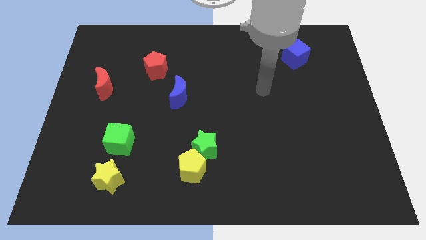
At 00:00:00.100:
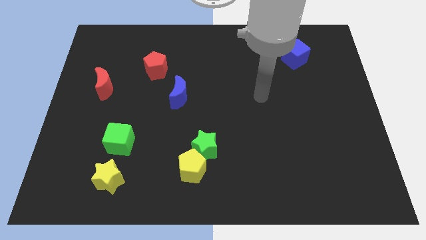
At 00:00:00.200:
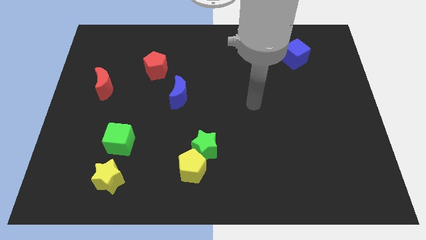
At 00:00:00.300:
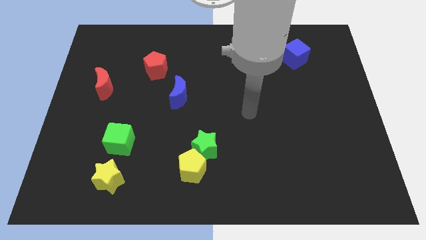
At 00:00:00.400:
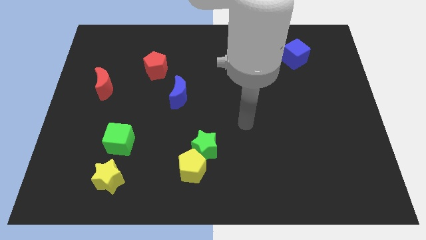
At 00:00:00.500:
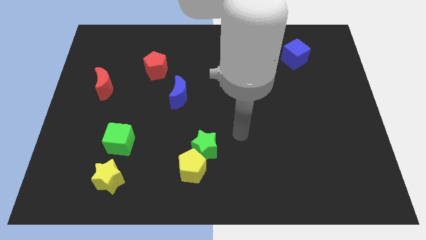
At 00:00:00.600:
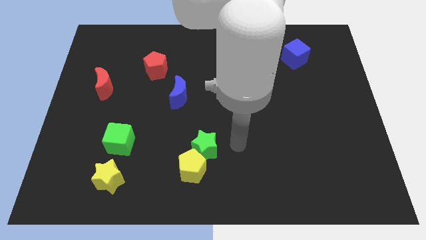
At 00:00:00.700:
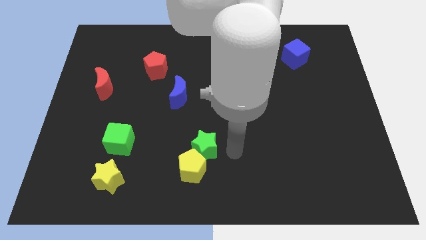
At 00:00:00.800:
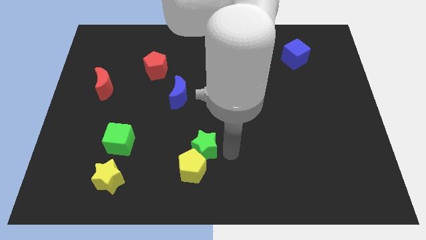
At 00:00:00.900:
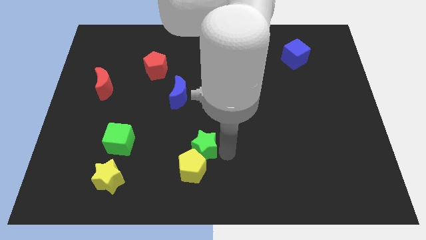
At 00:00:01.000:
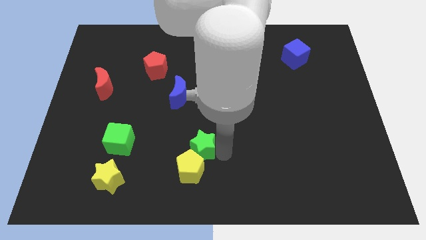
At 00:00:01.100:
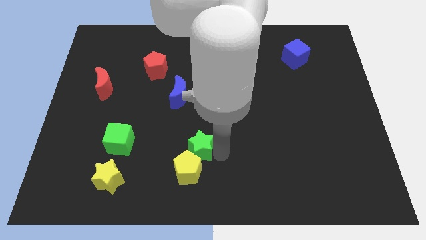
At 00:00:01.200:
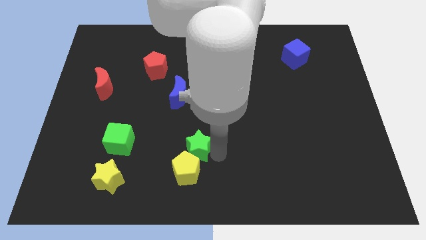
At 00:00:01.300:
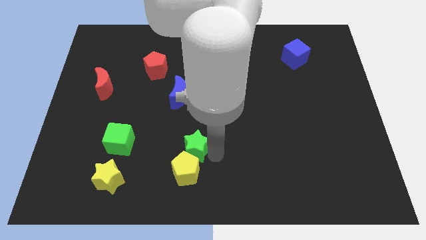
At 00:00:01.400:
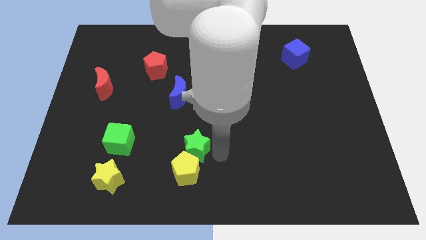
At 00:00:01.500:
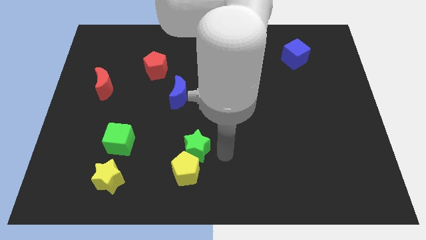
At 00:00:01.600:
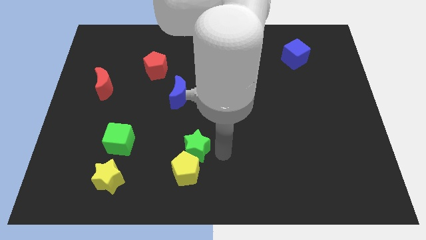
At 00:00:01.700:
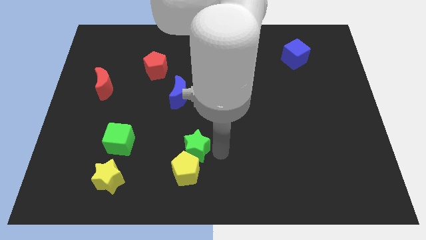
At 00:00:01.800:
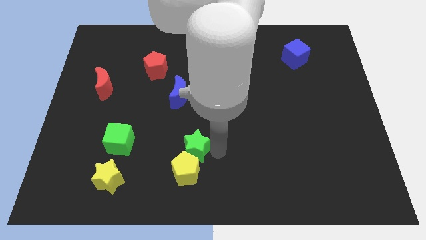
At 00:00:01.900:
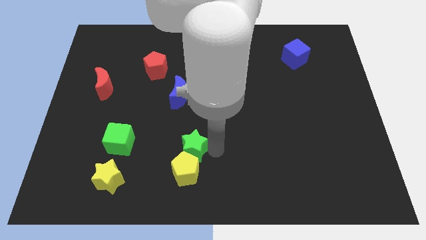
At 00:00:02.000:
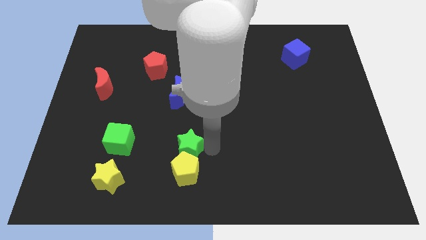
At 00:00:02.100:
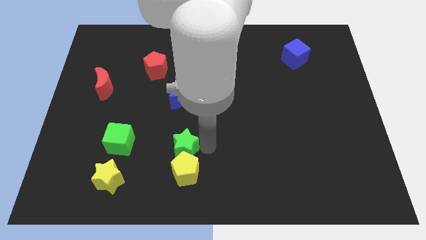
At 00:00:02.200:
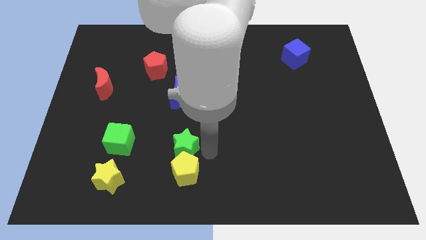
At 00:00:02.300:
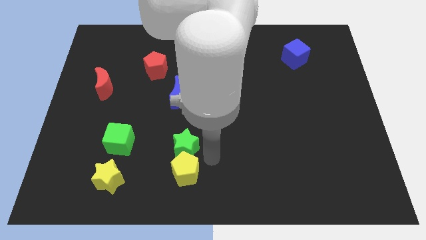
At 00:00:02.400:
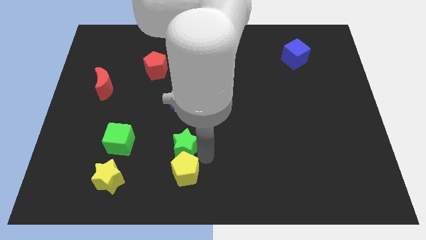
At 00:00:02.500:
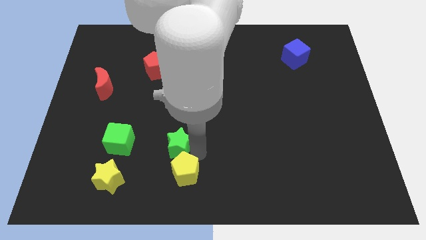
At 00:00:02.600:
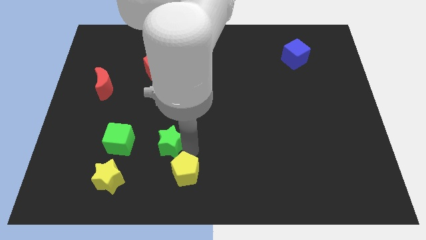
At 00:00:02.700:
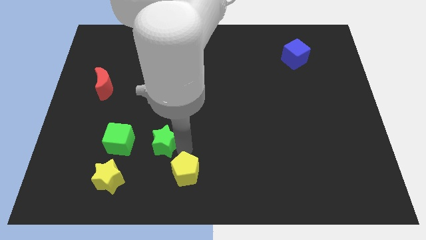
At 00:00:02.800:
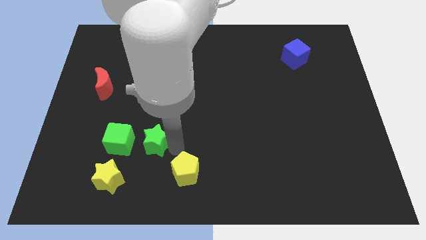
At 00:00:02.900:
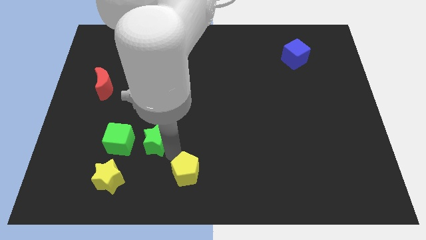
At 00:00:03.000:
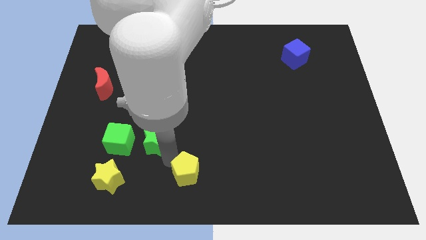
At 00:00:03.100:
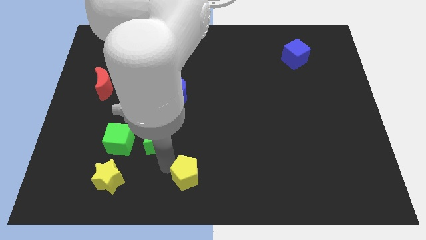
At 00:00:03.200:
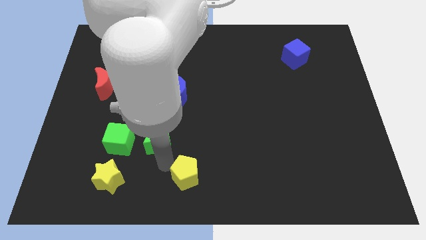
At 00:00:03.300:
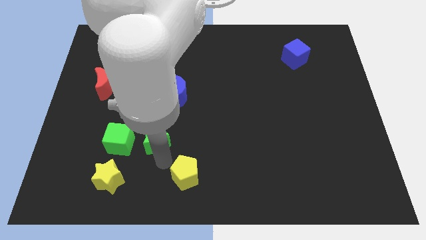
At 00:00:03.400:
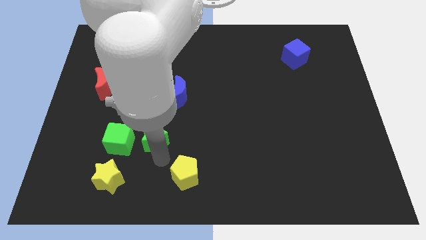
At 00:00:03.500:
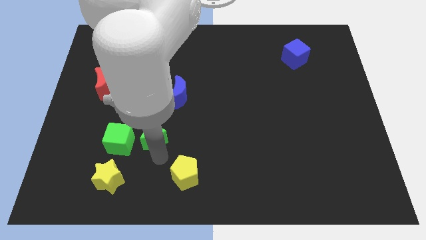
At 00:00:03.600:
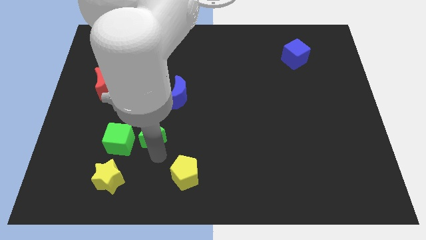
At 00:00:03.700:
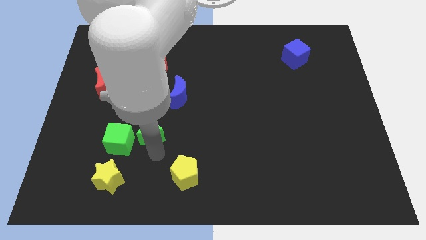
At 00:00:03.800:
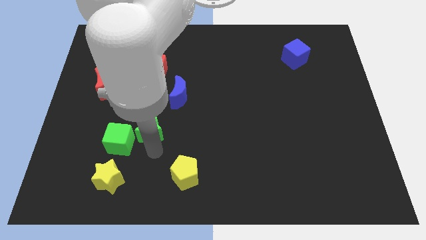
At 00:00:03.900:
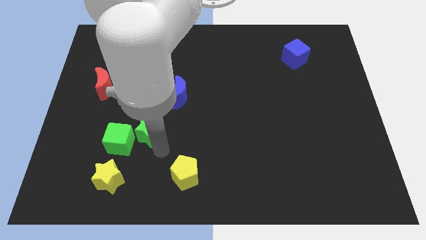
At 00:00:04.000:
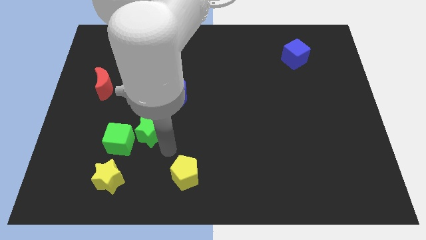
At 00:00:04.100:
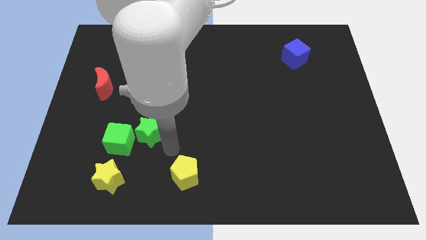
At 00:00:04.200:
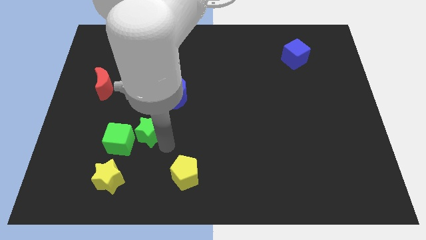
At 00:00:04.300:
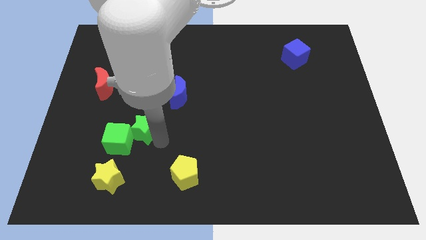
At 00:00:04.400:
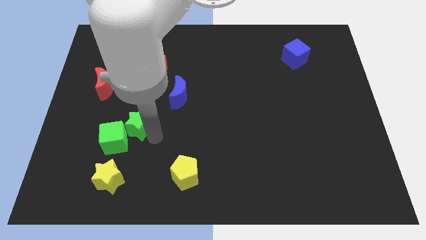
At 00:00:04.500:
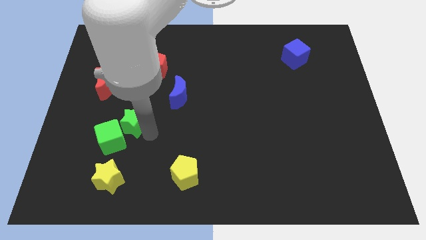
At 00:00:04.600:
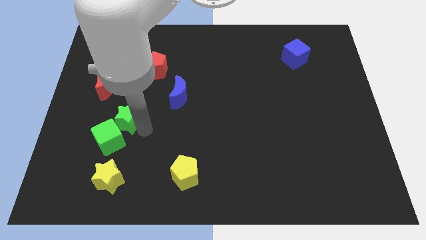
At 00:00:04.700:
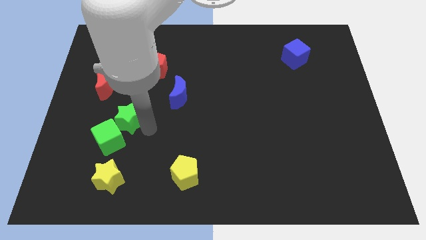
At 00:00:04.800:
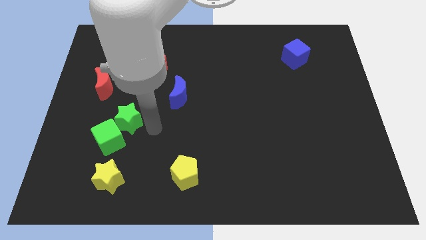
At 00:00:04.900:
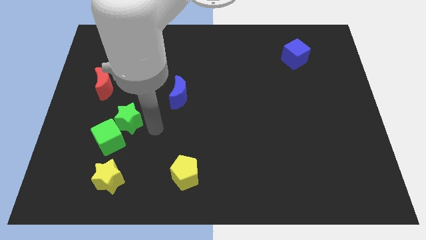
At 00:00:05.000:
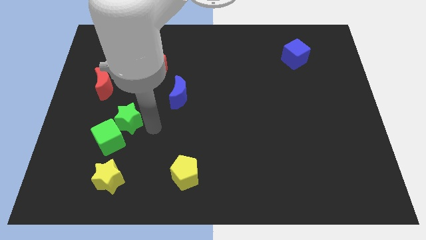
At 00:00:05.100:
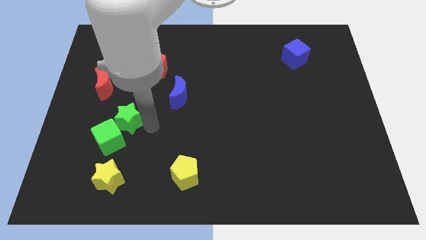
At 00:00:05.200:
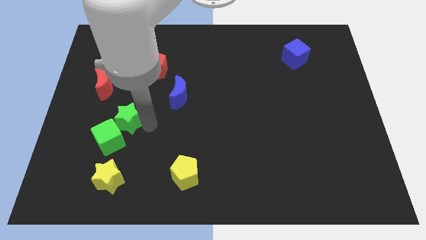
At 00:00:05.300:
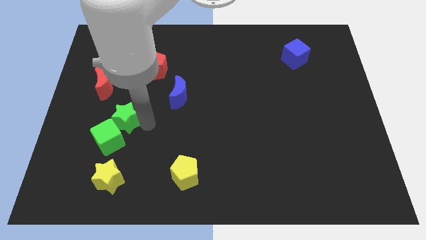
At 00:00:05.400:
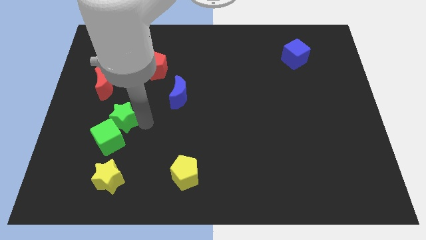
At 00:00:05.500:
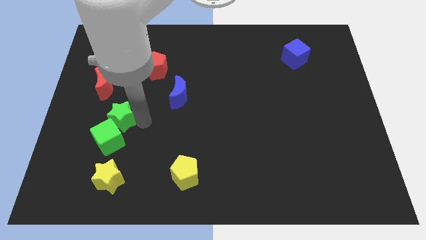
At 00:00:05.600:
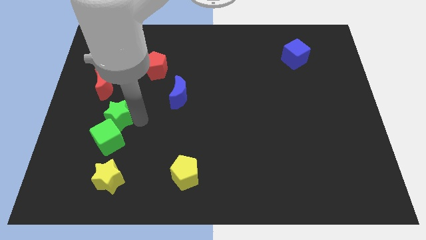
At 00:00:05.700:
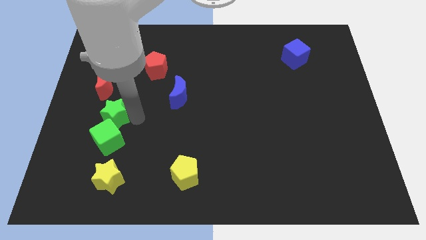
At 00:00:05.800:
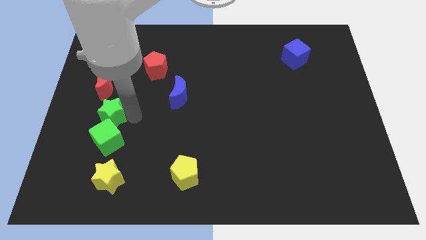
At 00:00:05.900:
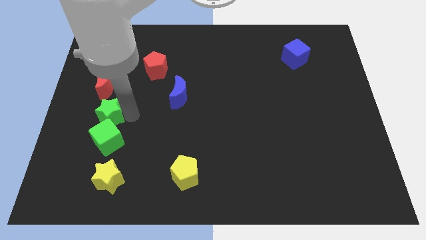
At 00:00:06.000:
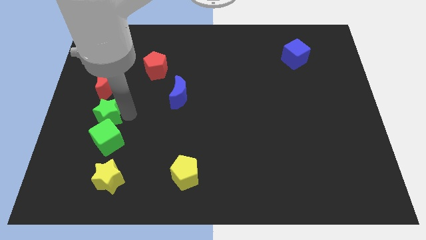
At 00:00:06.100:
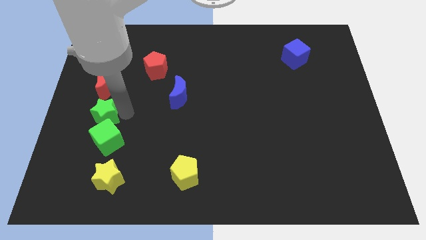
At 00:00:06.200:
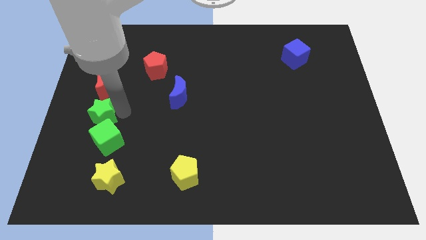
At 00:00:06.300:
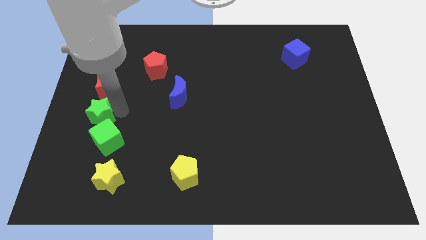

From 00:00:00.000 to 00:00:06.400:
push the green star to the center left
